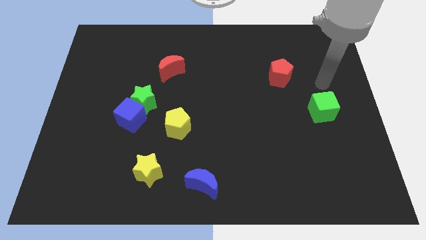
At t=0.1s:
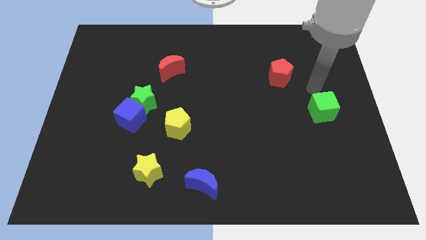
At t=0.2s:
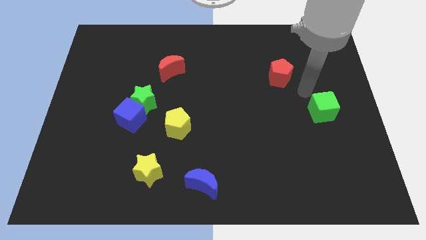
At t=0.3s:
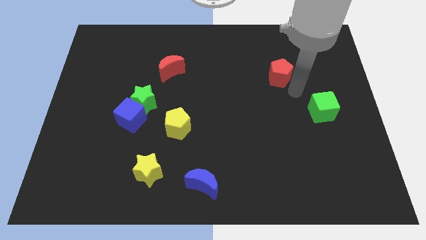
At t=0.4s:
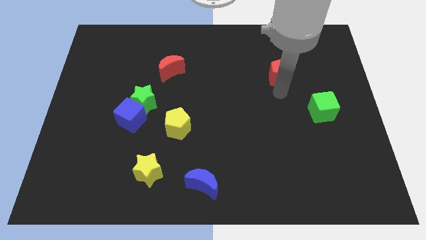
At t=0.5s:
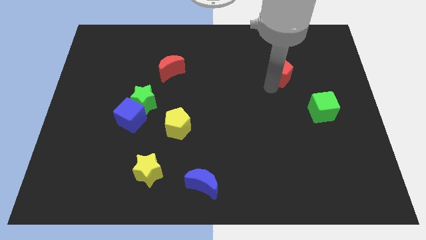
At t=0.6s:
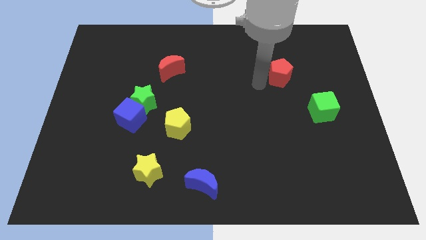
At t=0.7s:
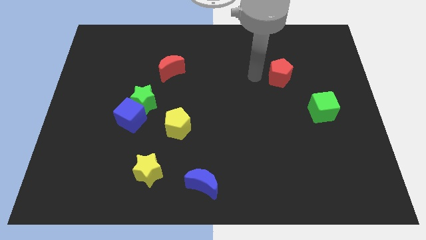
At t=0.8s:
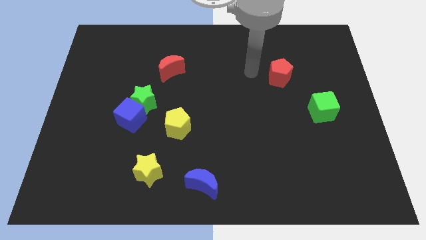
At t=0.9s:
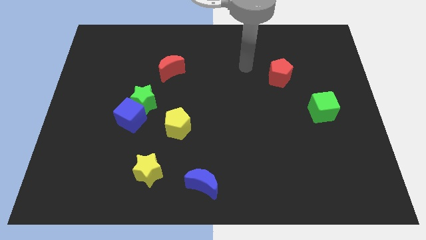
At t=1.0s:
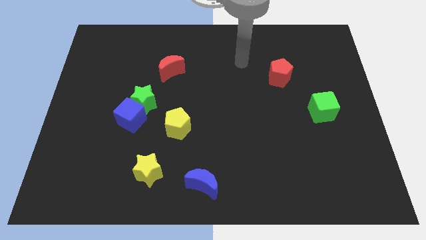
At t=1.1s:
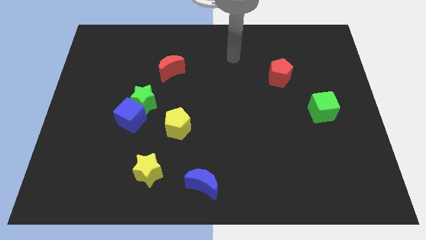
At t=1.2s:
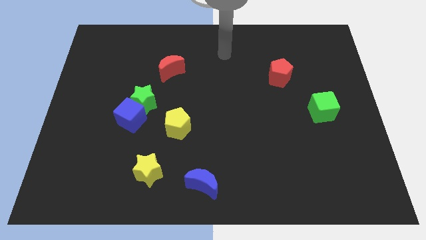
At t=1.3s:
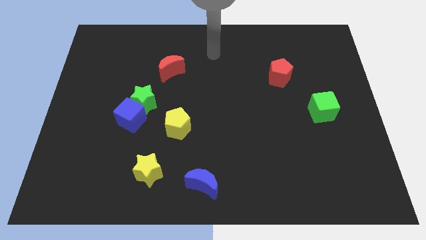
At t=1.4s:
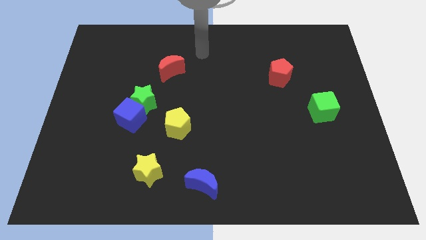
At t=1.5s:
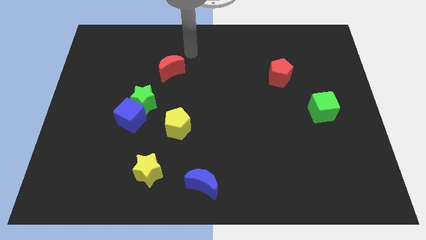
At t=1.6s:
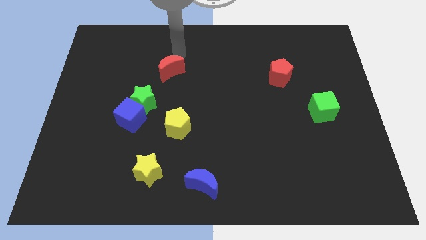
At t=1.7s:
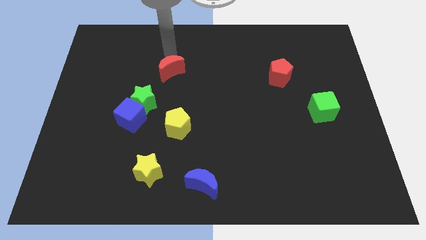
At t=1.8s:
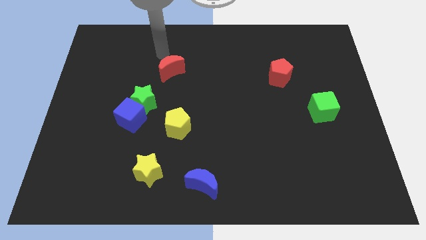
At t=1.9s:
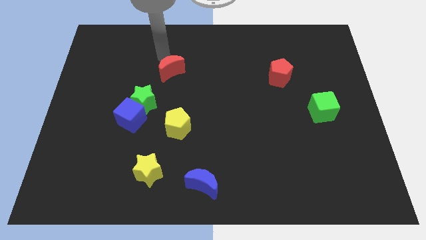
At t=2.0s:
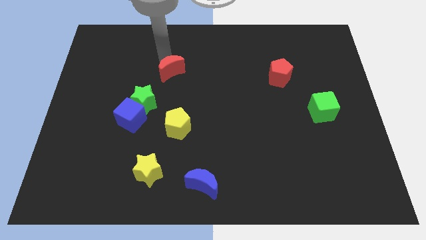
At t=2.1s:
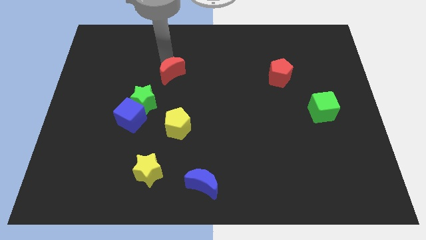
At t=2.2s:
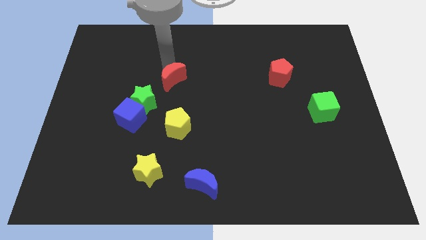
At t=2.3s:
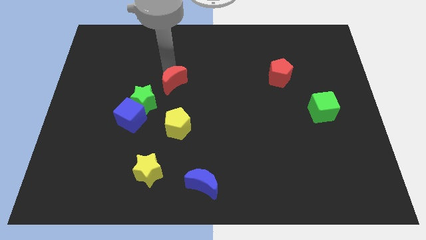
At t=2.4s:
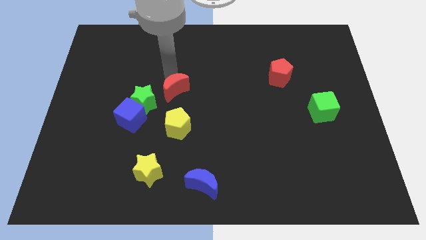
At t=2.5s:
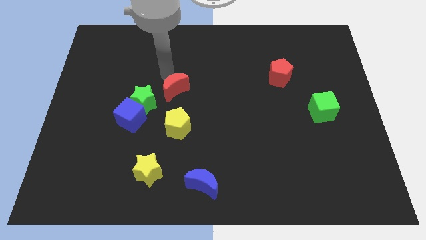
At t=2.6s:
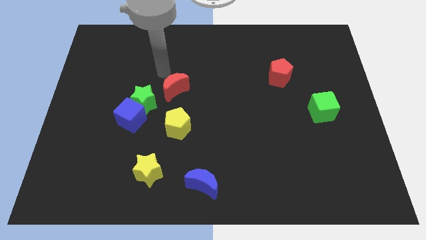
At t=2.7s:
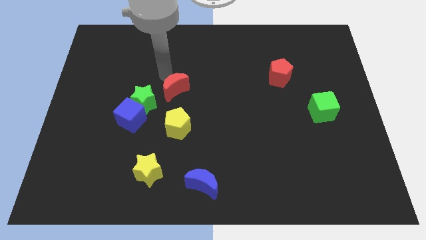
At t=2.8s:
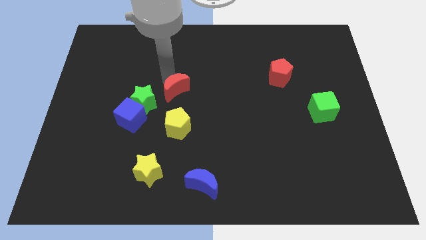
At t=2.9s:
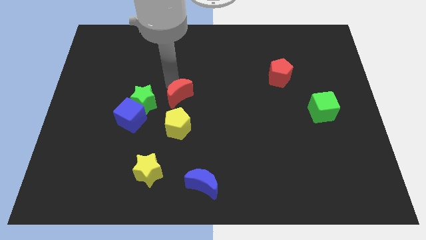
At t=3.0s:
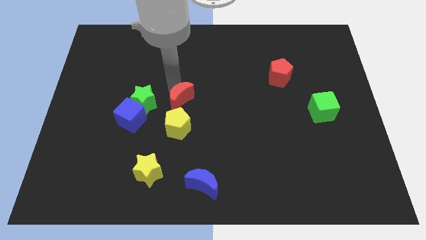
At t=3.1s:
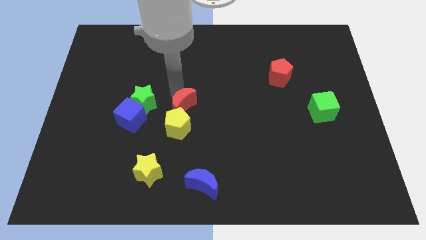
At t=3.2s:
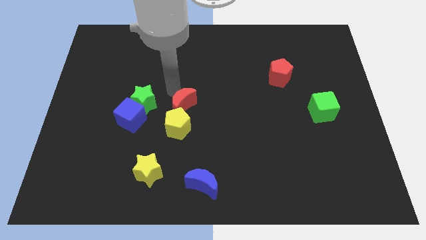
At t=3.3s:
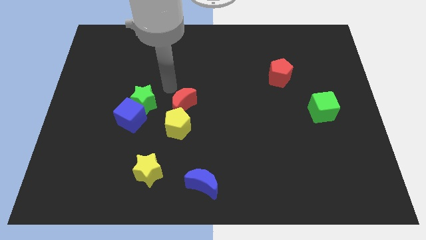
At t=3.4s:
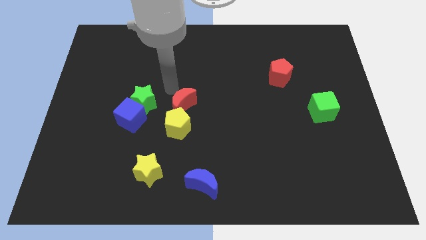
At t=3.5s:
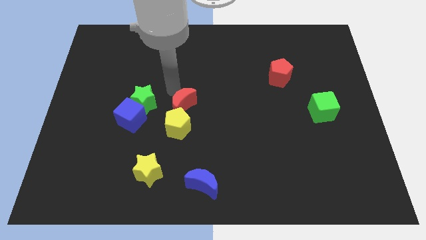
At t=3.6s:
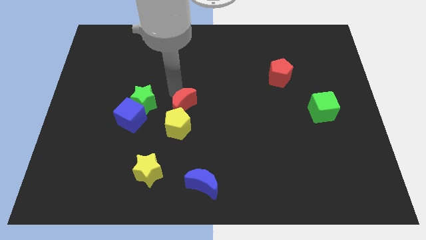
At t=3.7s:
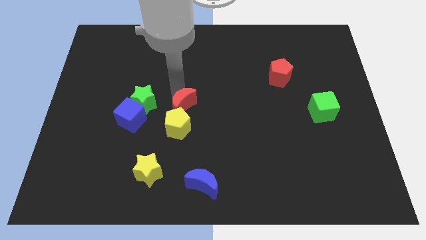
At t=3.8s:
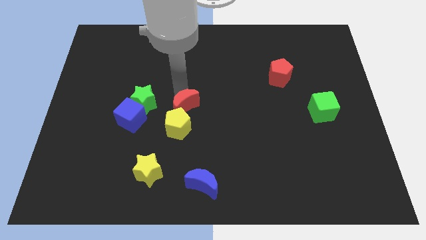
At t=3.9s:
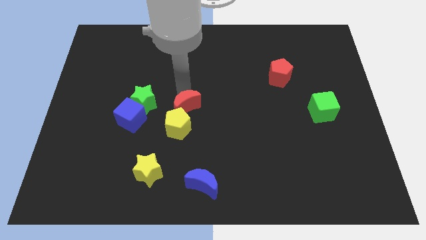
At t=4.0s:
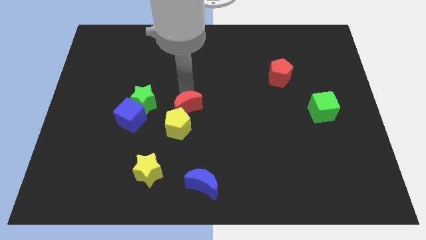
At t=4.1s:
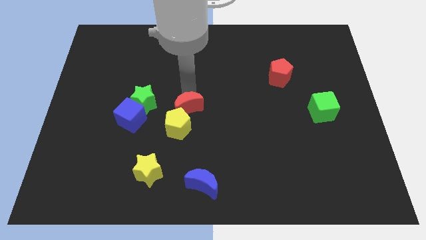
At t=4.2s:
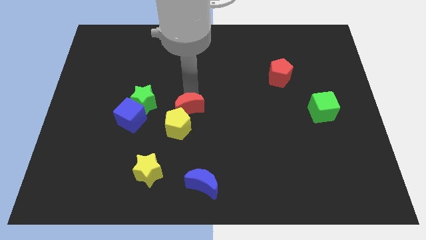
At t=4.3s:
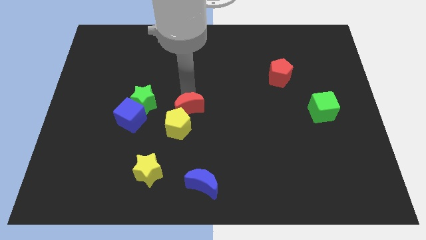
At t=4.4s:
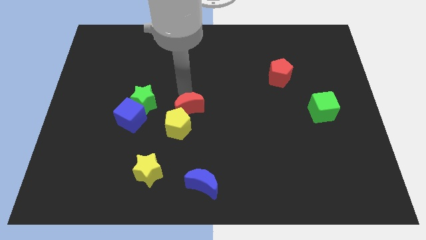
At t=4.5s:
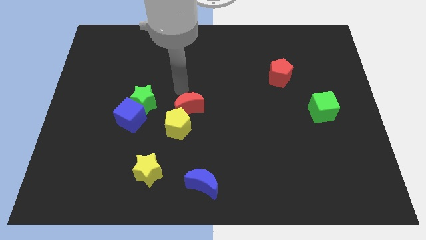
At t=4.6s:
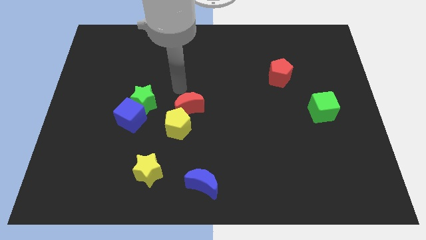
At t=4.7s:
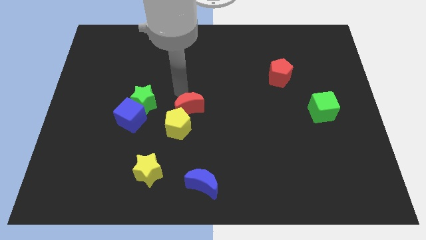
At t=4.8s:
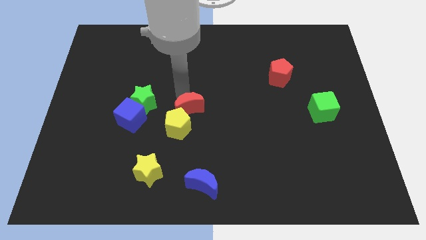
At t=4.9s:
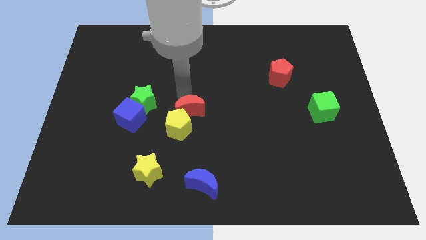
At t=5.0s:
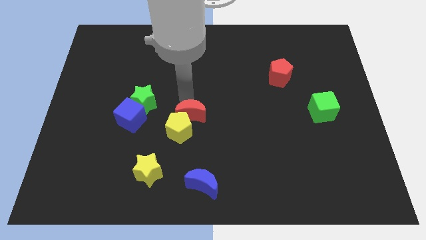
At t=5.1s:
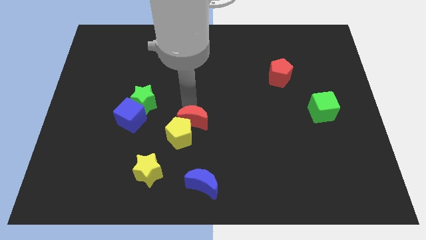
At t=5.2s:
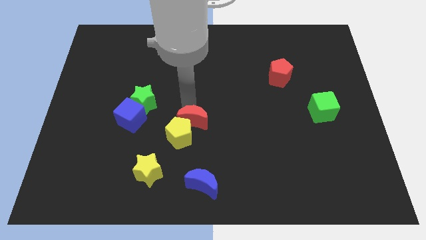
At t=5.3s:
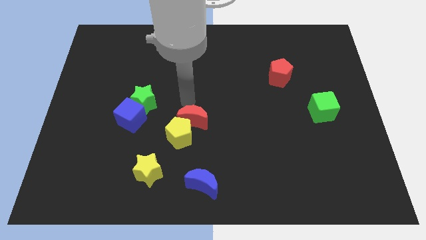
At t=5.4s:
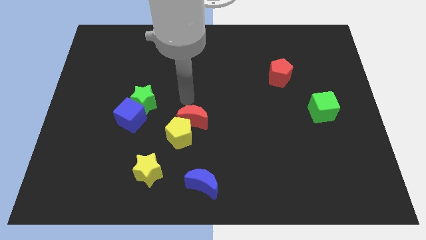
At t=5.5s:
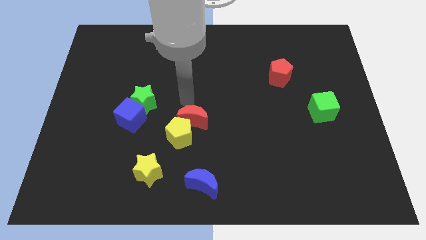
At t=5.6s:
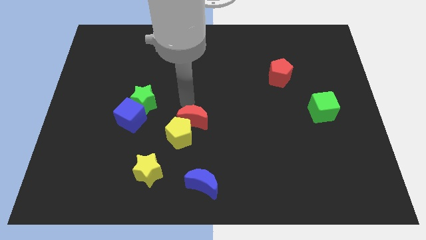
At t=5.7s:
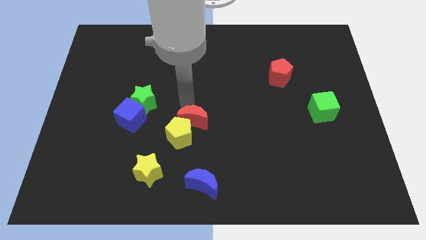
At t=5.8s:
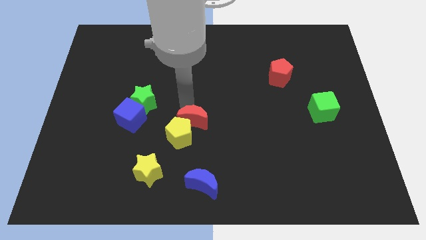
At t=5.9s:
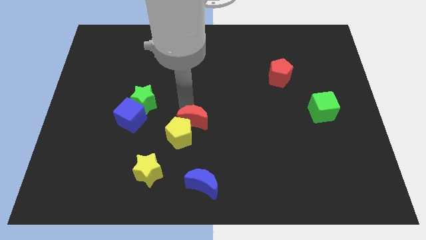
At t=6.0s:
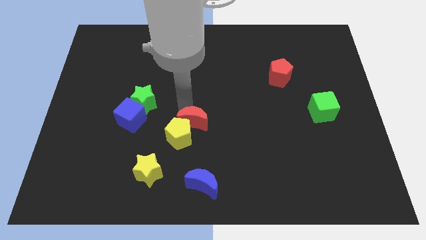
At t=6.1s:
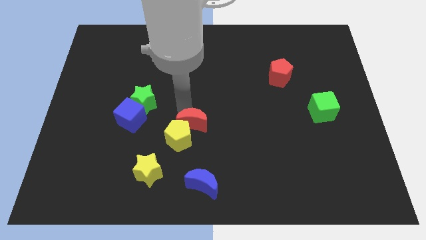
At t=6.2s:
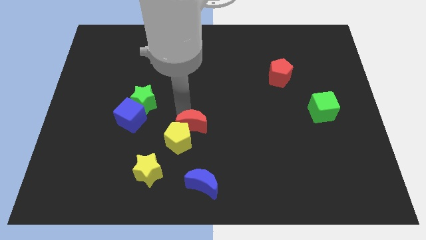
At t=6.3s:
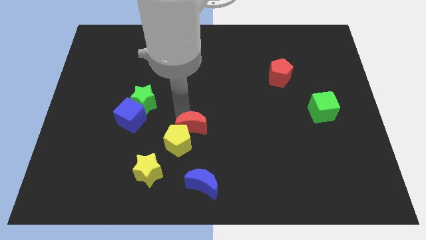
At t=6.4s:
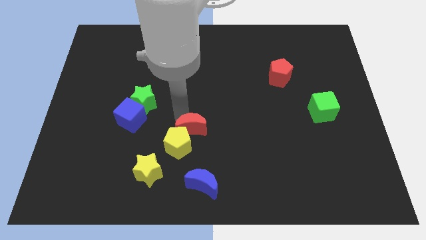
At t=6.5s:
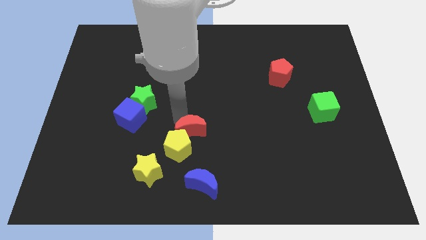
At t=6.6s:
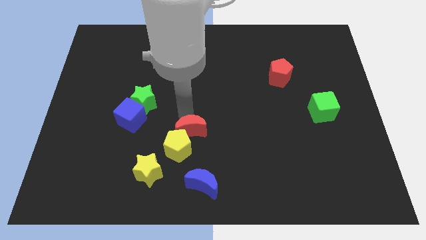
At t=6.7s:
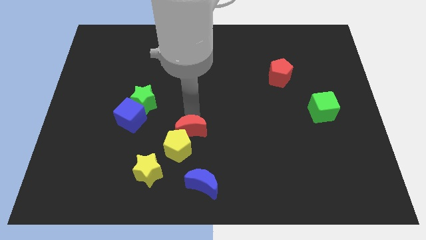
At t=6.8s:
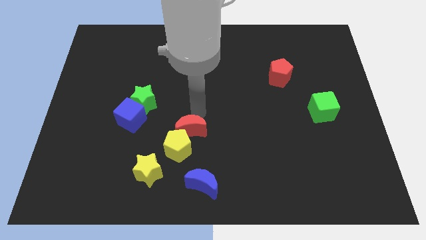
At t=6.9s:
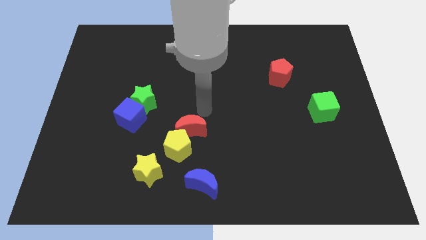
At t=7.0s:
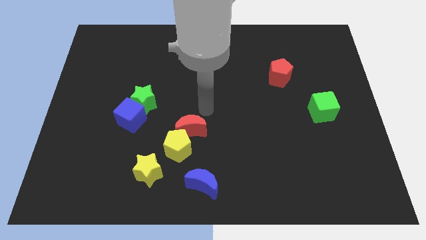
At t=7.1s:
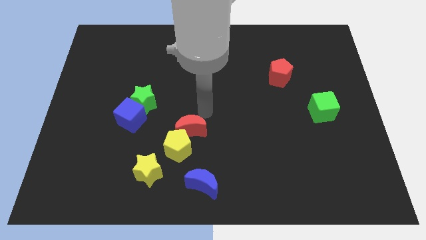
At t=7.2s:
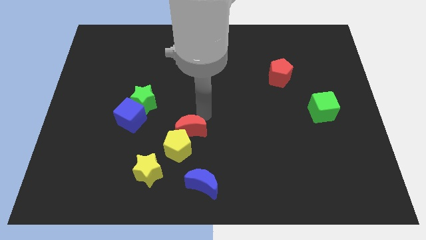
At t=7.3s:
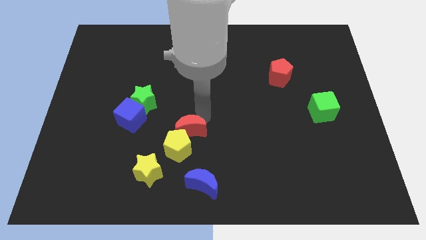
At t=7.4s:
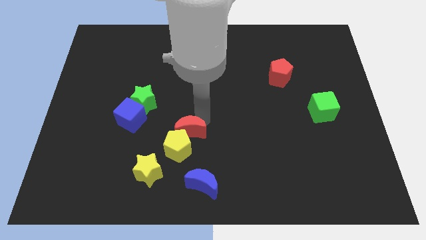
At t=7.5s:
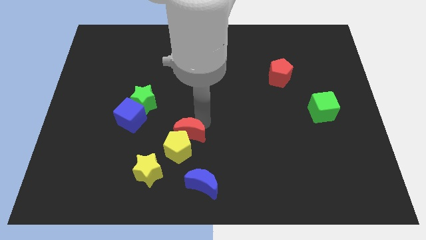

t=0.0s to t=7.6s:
move the red moon to the top right of the yellow star

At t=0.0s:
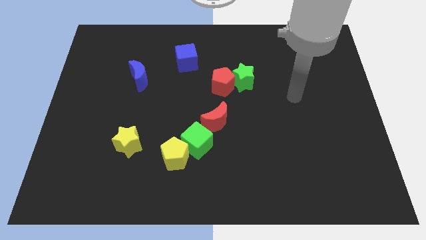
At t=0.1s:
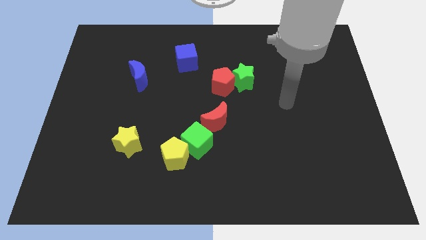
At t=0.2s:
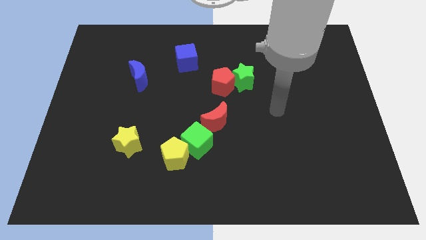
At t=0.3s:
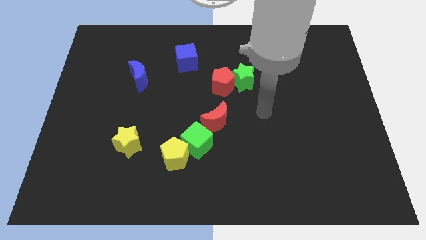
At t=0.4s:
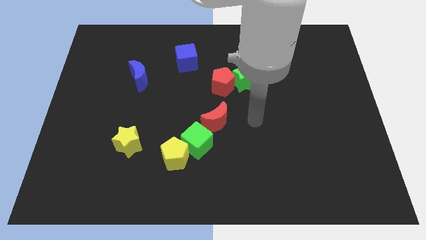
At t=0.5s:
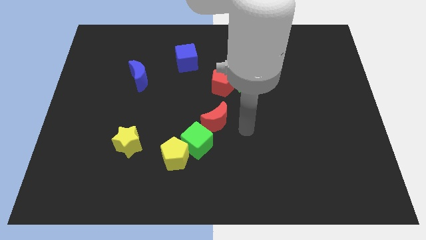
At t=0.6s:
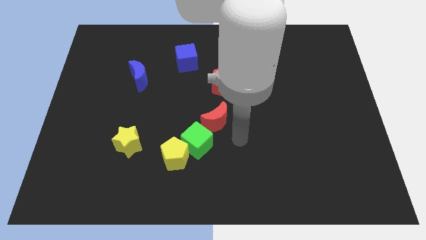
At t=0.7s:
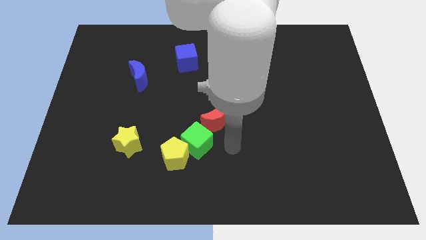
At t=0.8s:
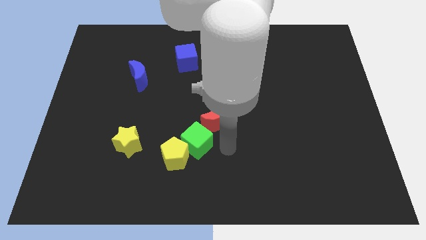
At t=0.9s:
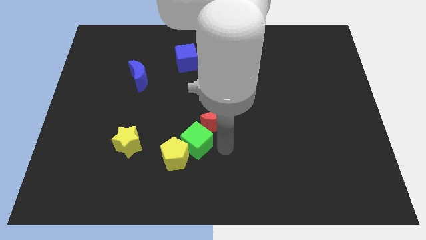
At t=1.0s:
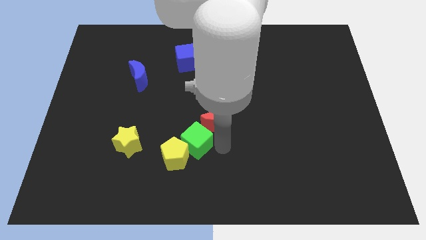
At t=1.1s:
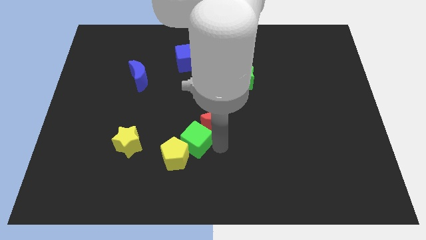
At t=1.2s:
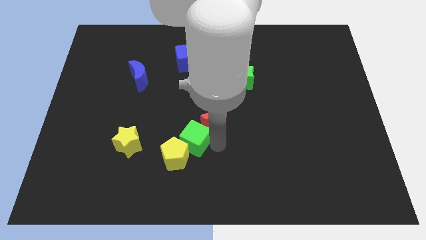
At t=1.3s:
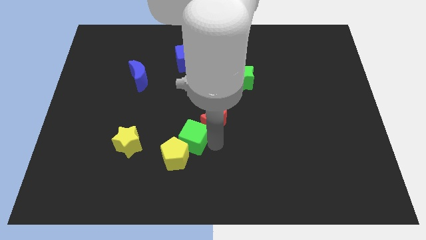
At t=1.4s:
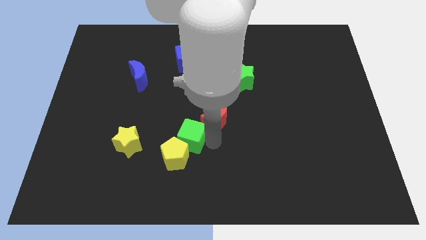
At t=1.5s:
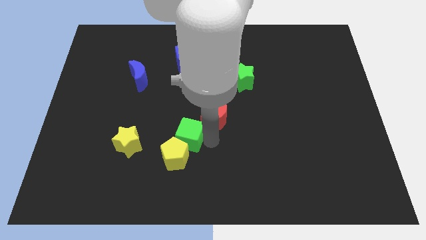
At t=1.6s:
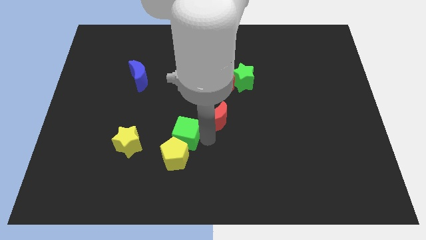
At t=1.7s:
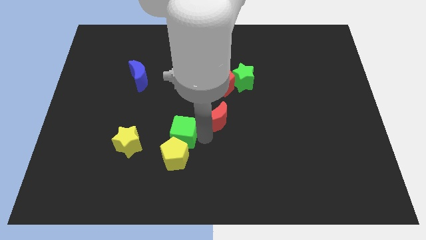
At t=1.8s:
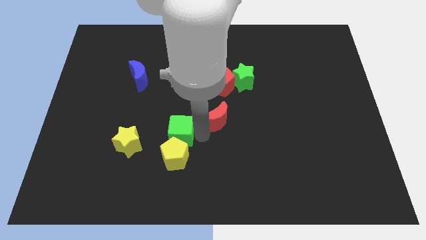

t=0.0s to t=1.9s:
put the green cube diagonally up and to the left of the yellow pentagon
